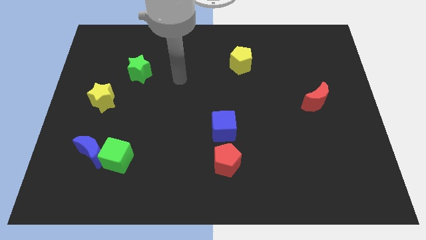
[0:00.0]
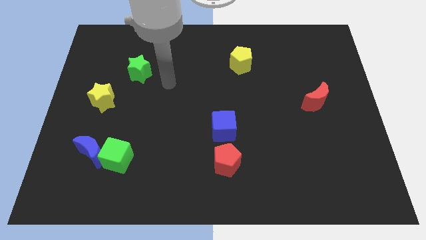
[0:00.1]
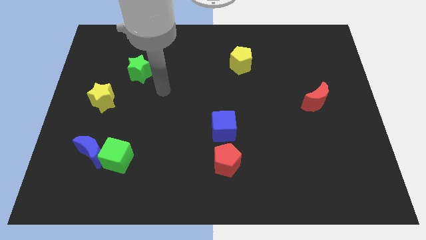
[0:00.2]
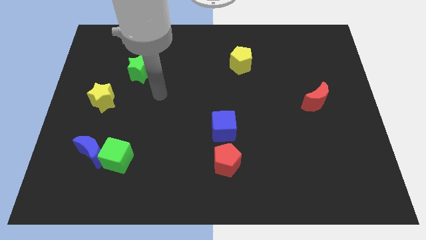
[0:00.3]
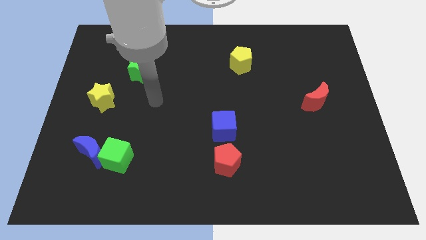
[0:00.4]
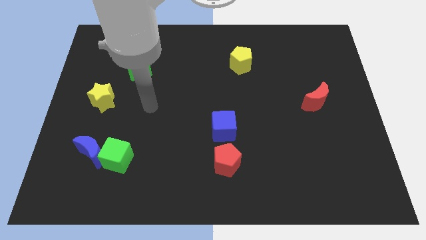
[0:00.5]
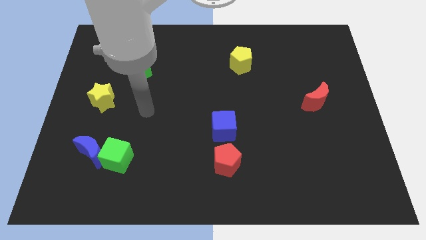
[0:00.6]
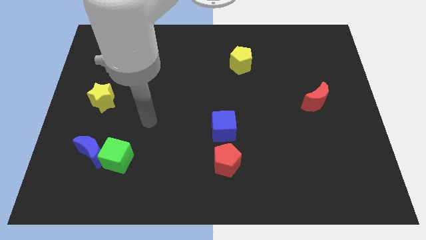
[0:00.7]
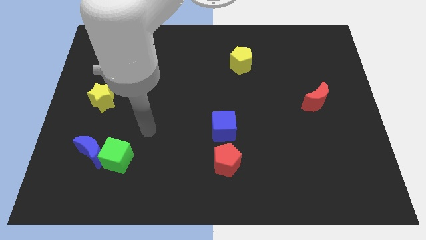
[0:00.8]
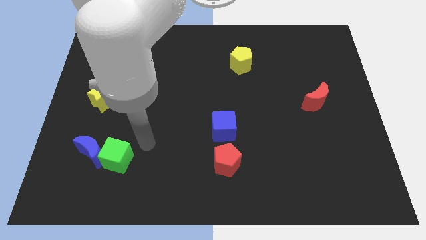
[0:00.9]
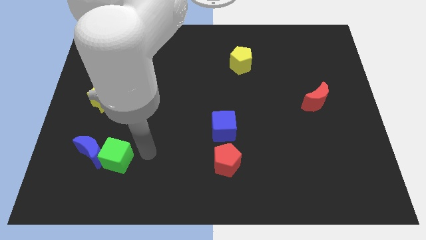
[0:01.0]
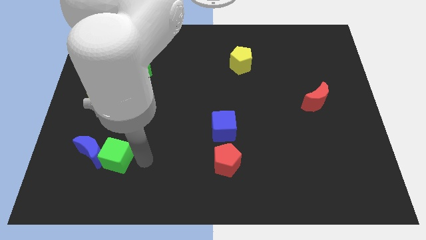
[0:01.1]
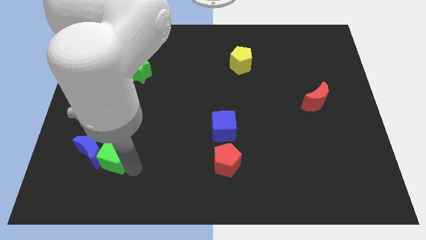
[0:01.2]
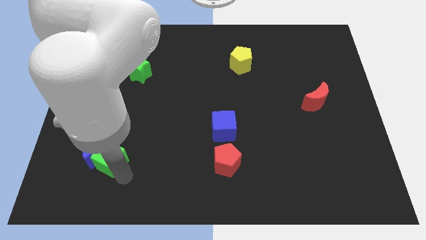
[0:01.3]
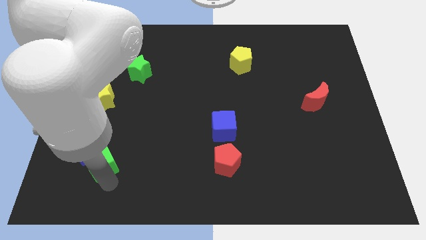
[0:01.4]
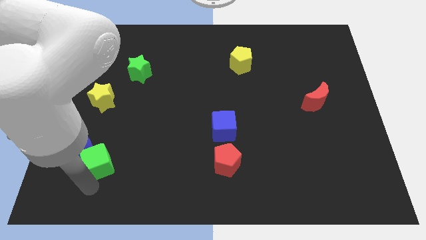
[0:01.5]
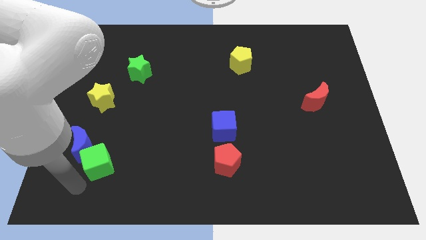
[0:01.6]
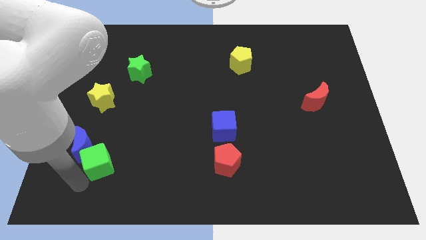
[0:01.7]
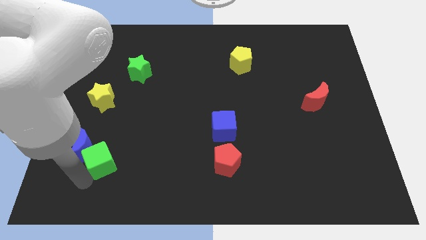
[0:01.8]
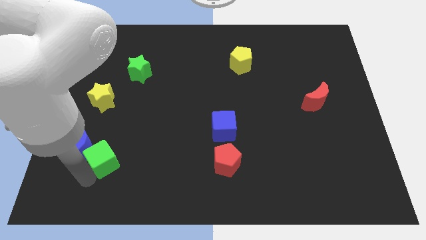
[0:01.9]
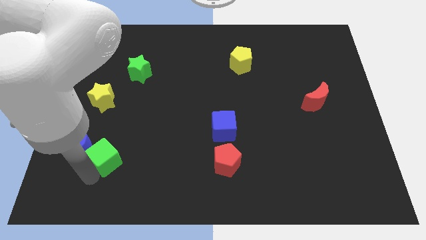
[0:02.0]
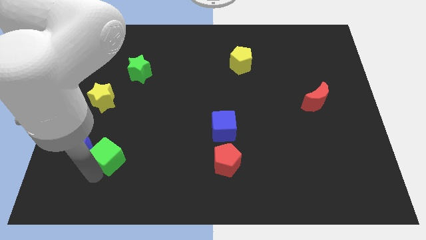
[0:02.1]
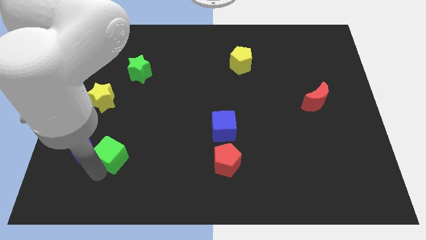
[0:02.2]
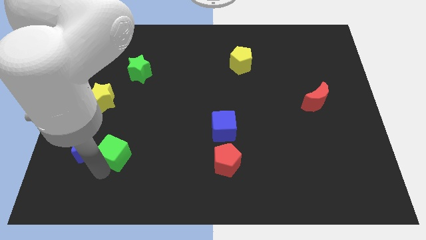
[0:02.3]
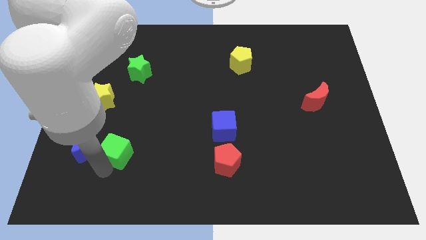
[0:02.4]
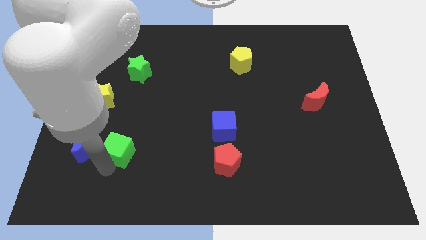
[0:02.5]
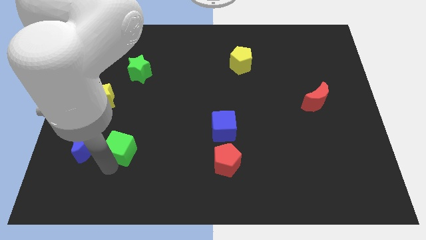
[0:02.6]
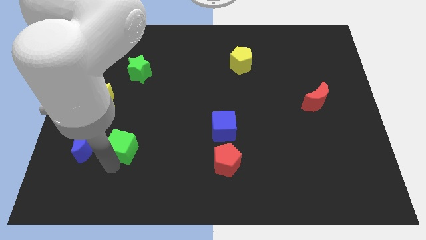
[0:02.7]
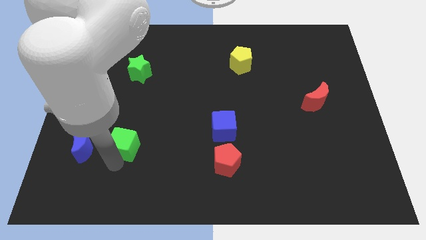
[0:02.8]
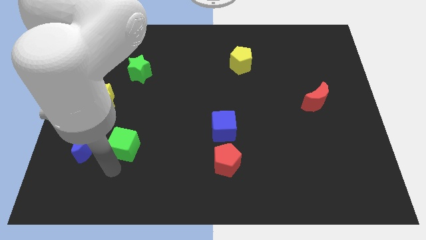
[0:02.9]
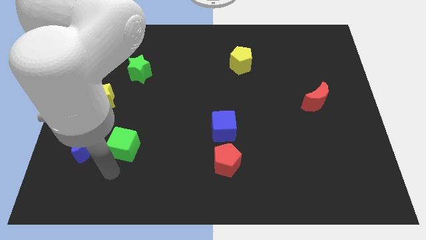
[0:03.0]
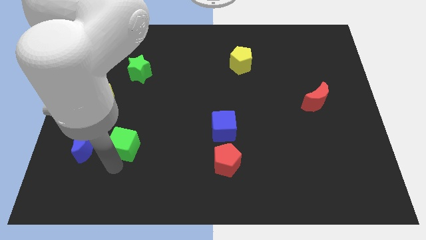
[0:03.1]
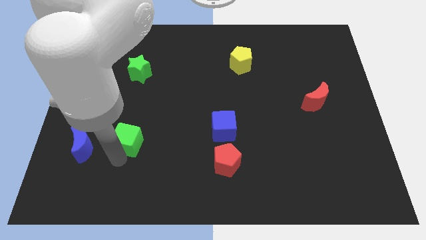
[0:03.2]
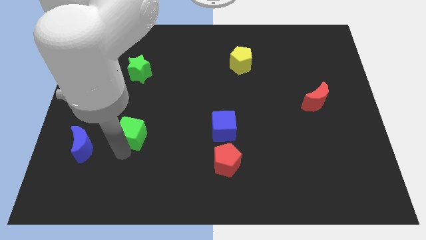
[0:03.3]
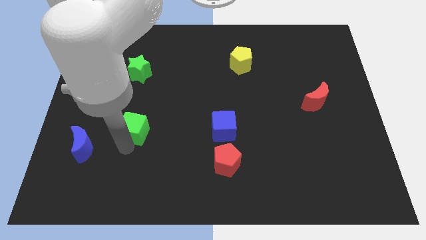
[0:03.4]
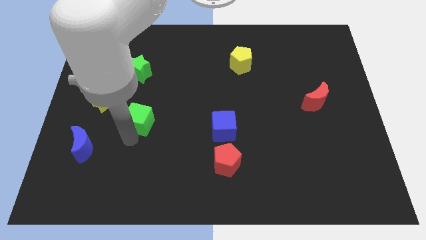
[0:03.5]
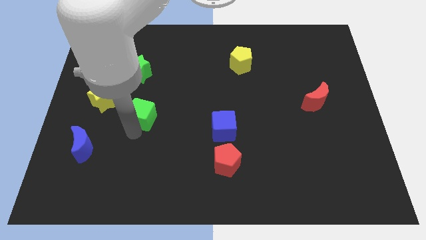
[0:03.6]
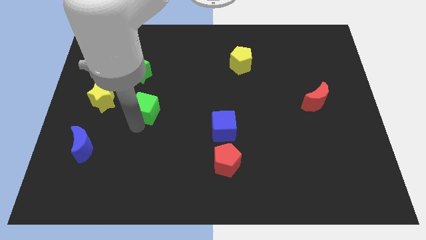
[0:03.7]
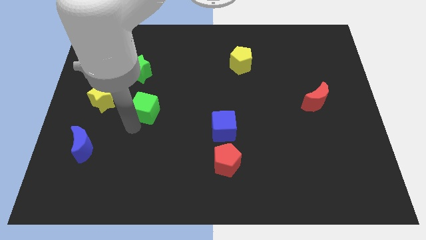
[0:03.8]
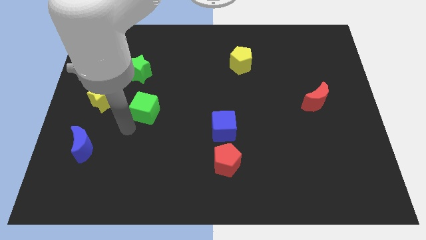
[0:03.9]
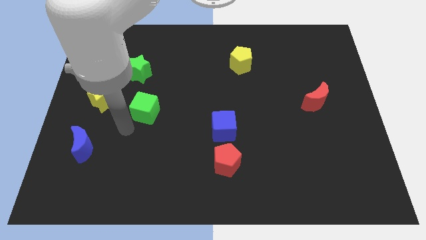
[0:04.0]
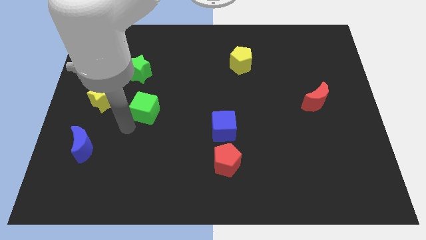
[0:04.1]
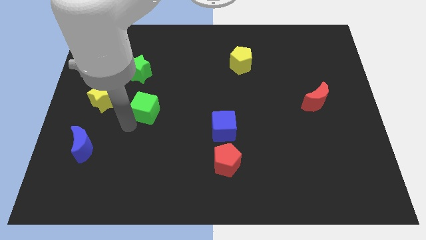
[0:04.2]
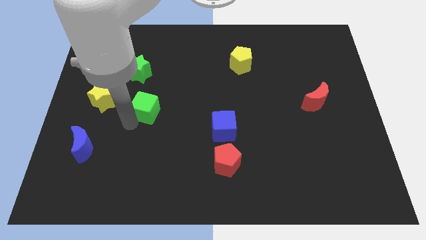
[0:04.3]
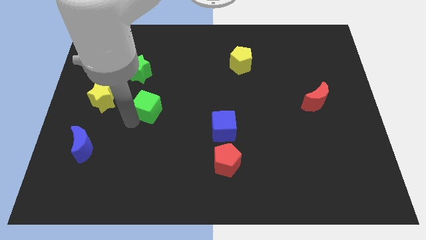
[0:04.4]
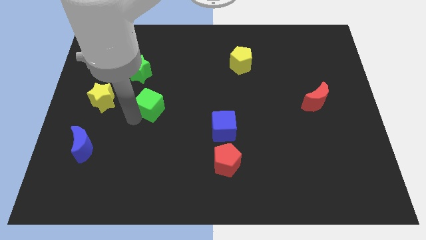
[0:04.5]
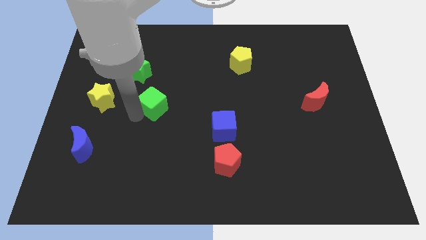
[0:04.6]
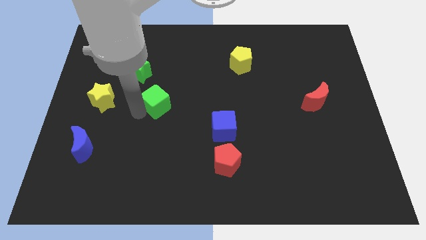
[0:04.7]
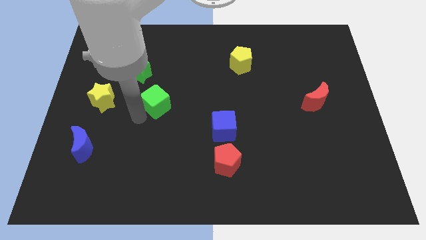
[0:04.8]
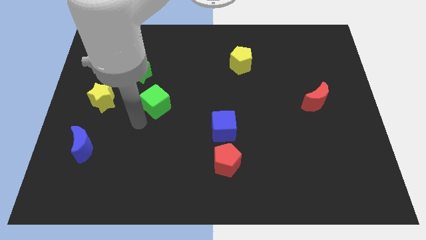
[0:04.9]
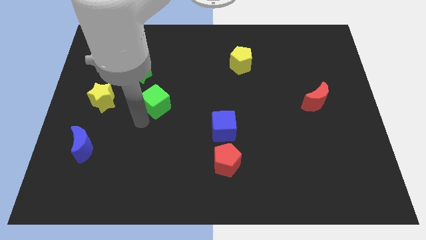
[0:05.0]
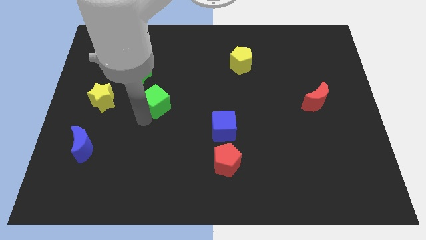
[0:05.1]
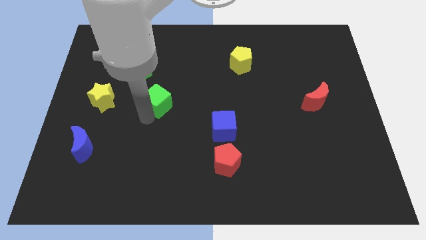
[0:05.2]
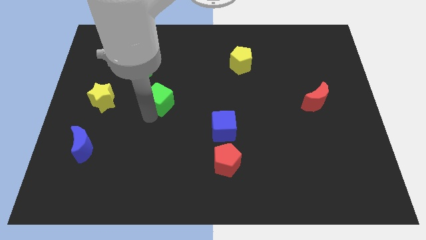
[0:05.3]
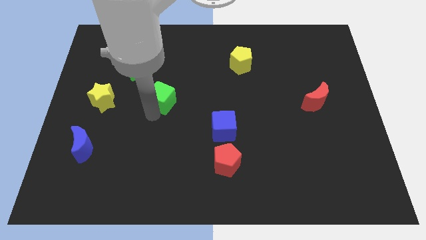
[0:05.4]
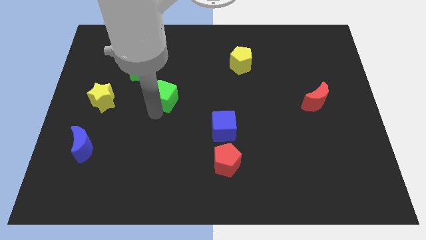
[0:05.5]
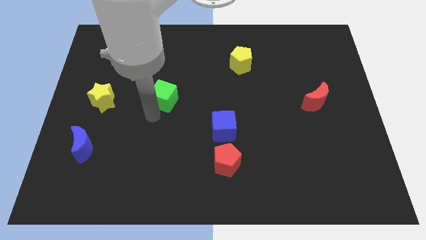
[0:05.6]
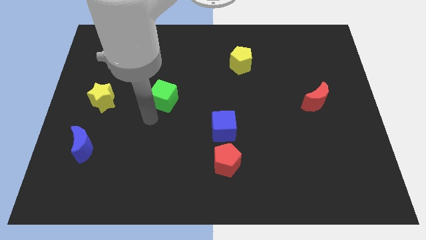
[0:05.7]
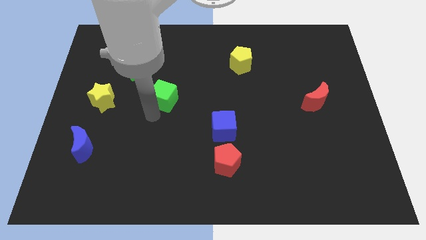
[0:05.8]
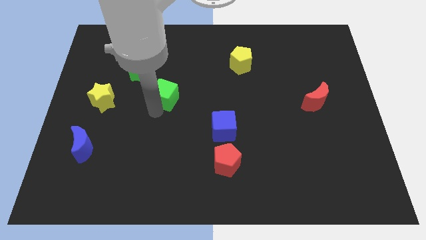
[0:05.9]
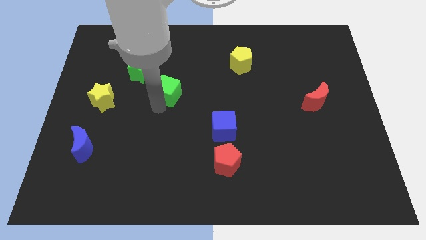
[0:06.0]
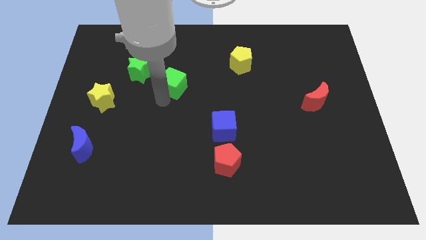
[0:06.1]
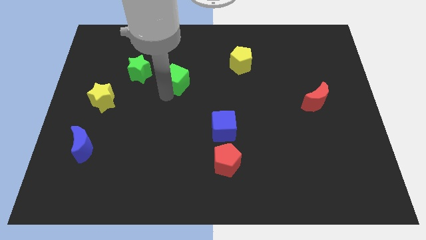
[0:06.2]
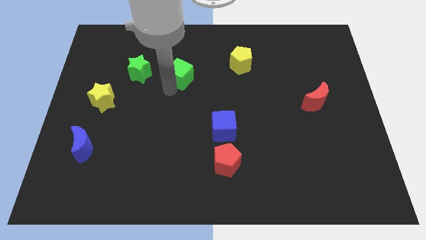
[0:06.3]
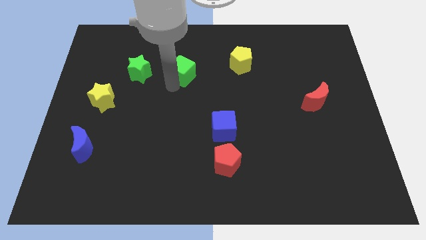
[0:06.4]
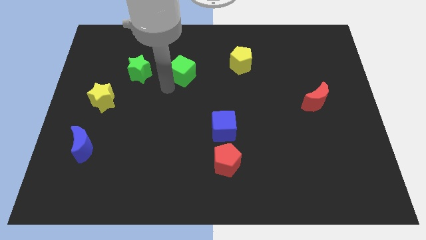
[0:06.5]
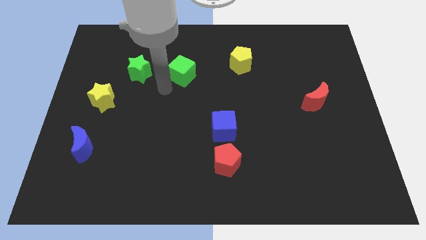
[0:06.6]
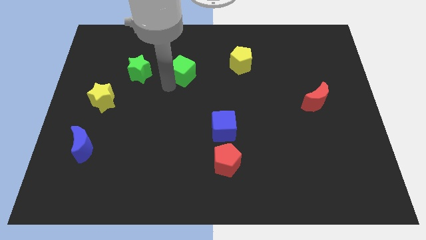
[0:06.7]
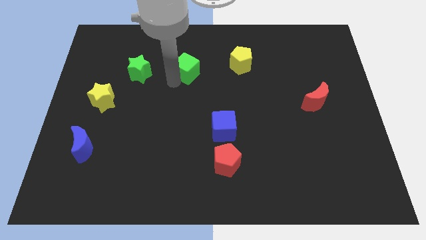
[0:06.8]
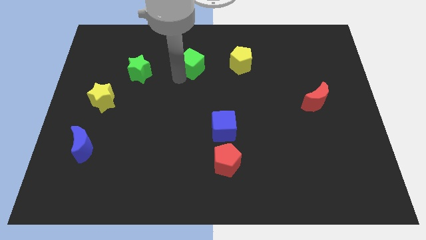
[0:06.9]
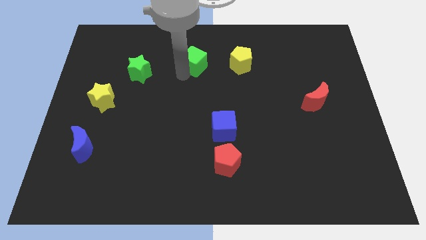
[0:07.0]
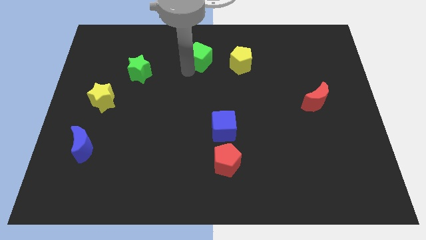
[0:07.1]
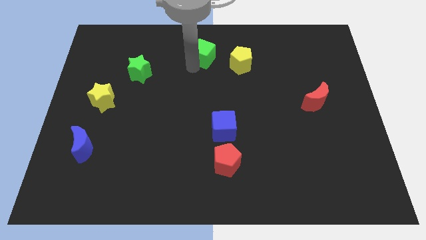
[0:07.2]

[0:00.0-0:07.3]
put the green cube to the towards your base
